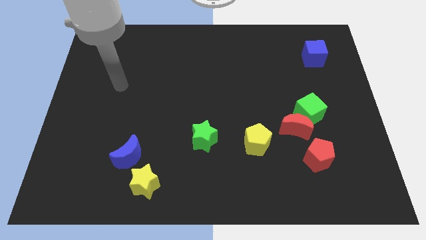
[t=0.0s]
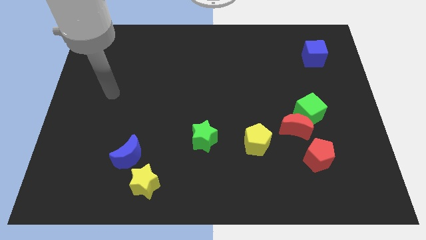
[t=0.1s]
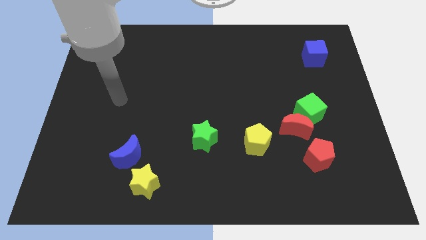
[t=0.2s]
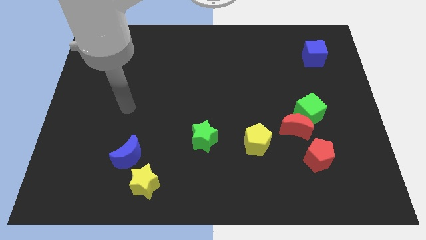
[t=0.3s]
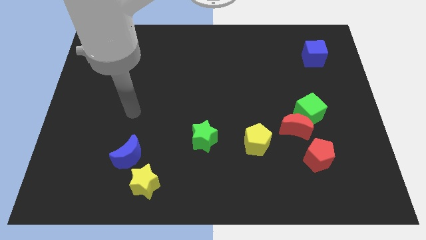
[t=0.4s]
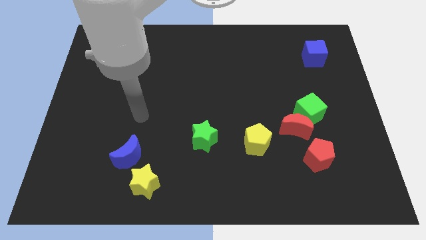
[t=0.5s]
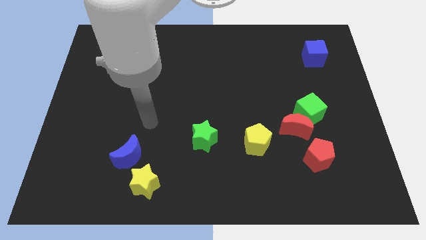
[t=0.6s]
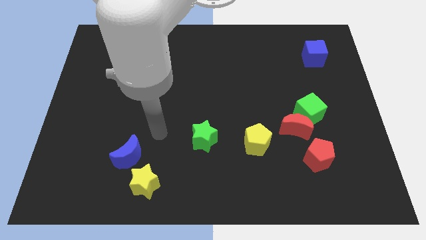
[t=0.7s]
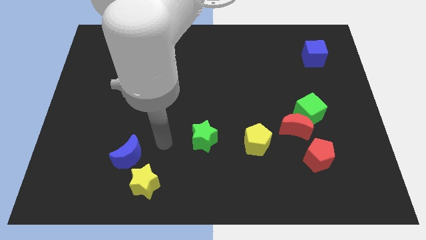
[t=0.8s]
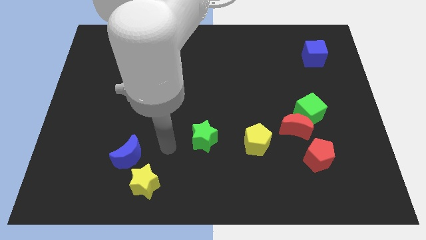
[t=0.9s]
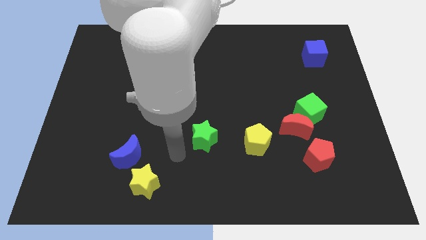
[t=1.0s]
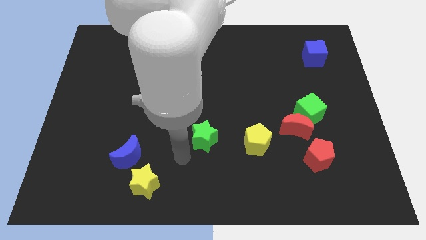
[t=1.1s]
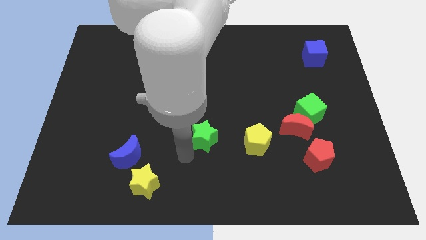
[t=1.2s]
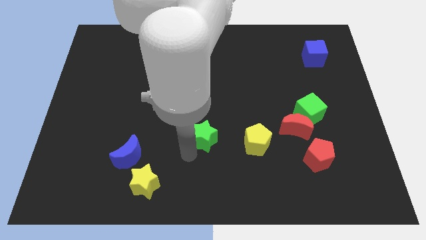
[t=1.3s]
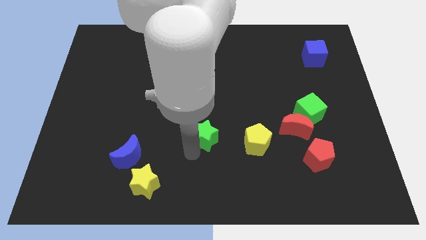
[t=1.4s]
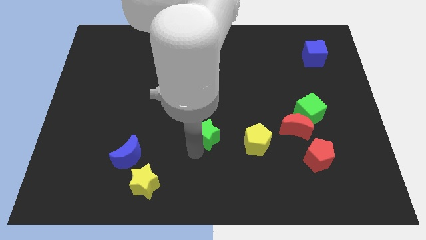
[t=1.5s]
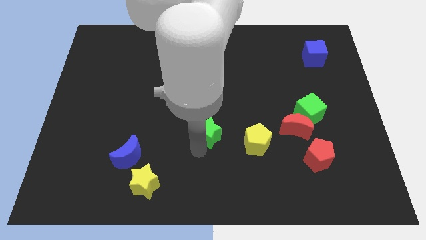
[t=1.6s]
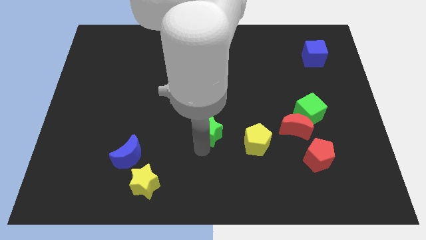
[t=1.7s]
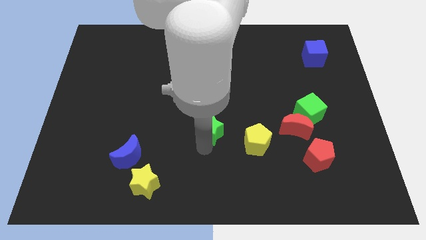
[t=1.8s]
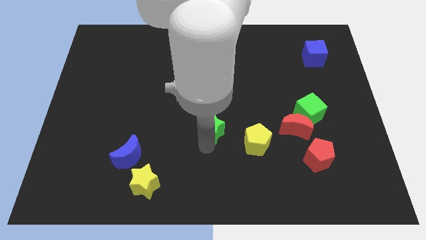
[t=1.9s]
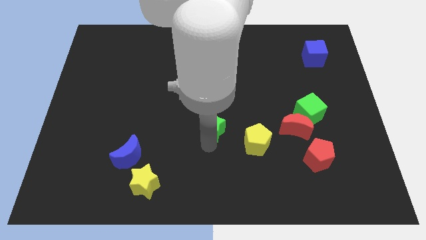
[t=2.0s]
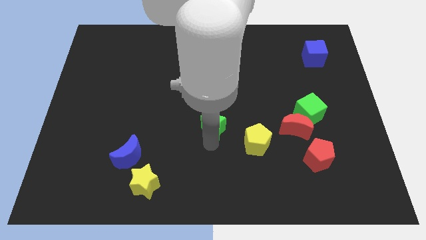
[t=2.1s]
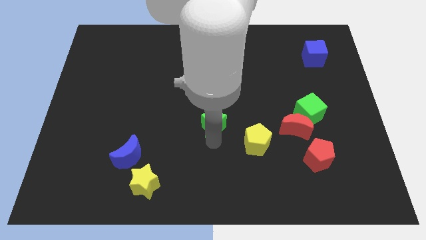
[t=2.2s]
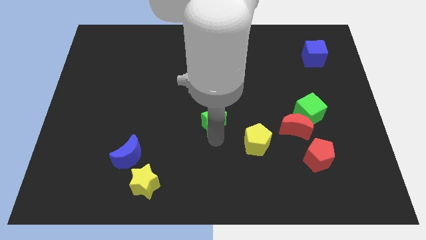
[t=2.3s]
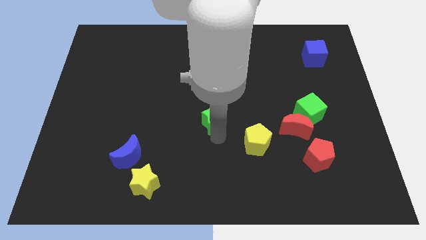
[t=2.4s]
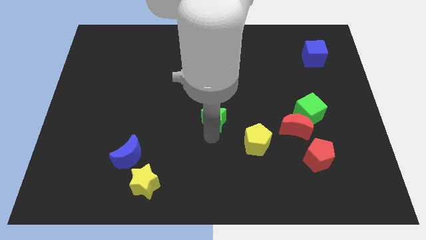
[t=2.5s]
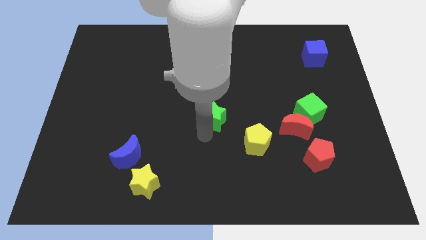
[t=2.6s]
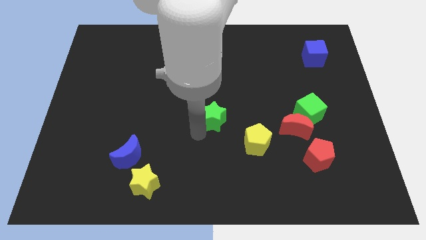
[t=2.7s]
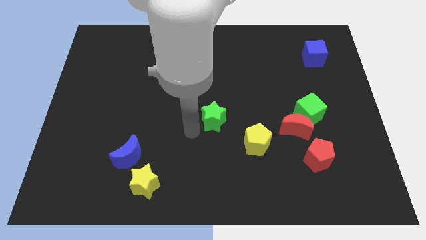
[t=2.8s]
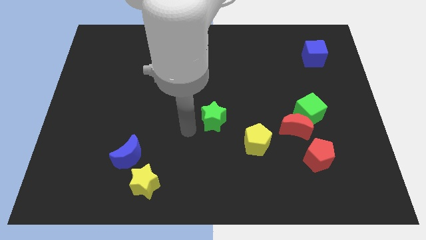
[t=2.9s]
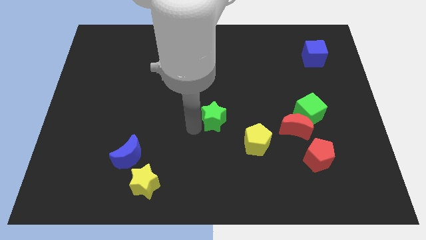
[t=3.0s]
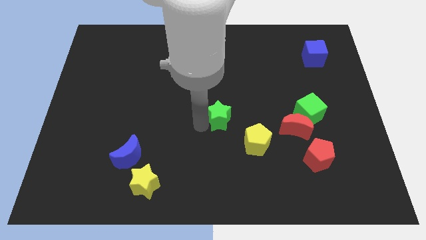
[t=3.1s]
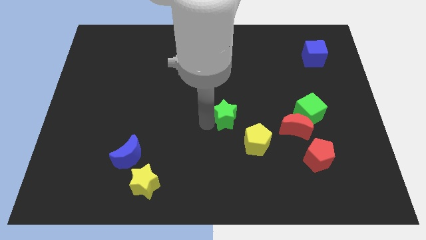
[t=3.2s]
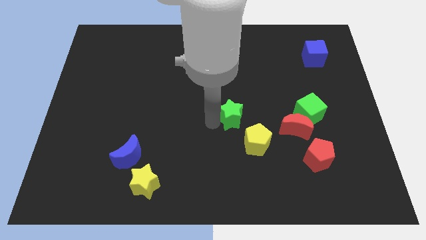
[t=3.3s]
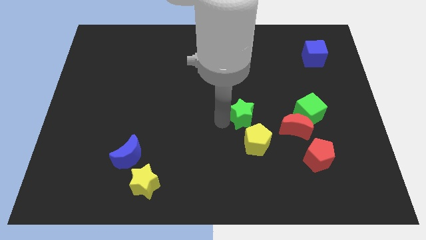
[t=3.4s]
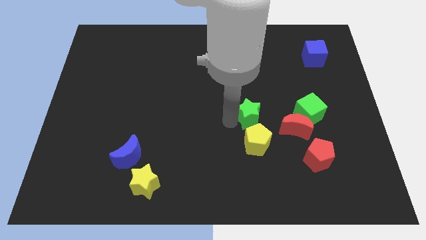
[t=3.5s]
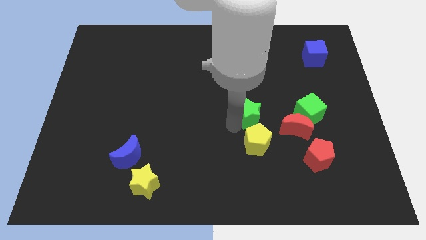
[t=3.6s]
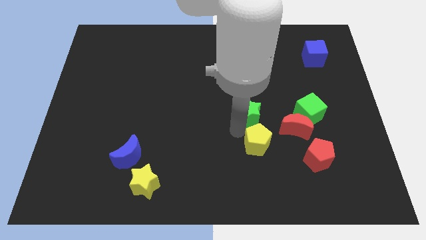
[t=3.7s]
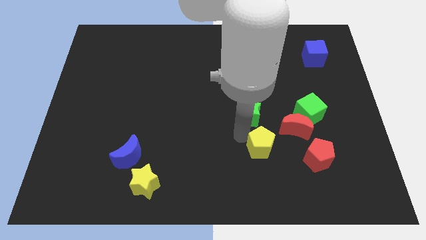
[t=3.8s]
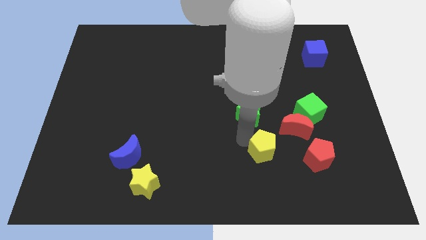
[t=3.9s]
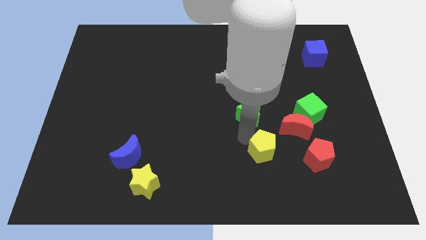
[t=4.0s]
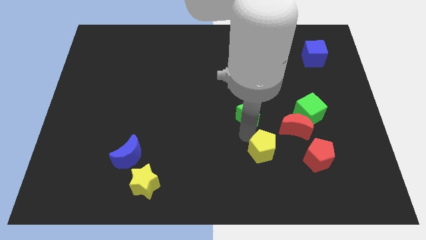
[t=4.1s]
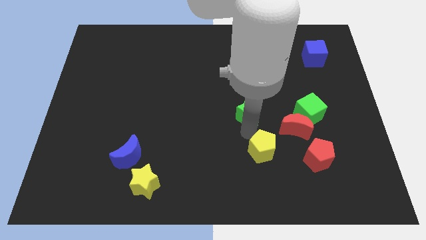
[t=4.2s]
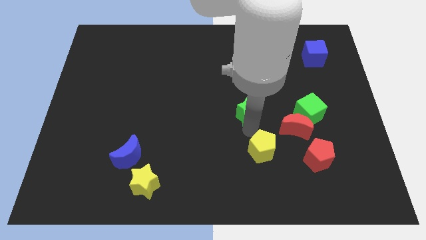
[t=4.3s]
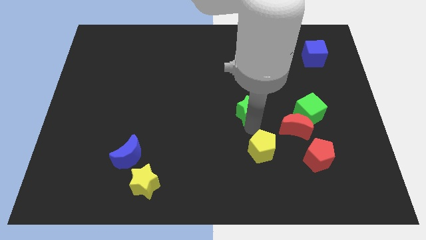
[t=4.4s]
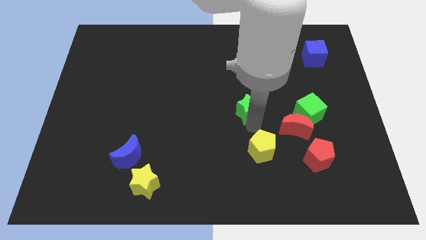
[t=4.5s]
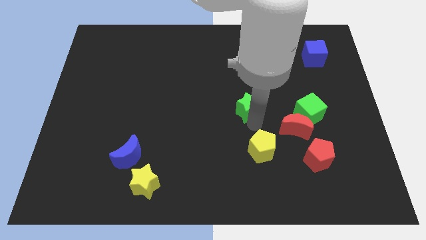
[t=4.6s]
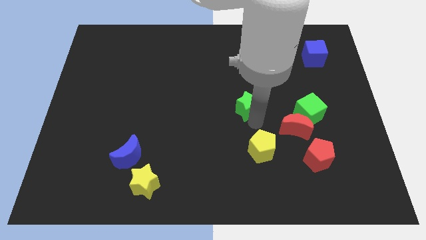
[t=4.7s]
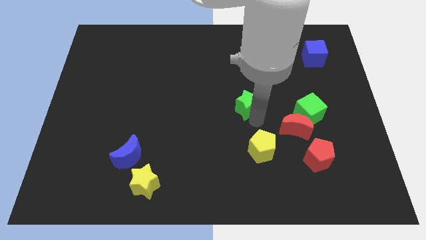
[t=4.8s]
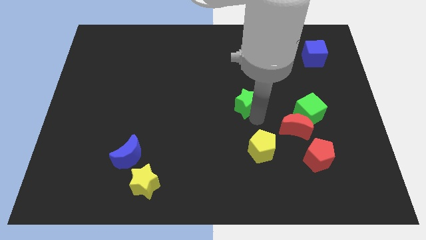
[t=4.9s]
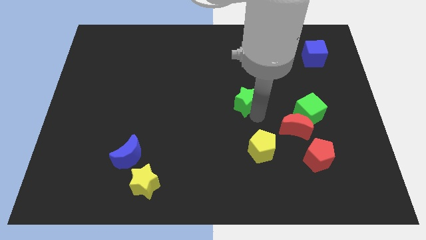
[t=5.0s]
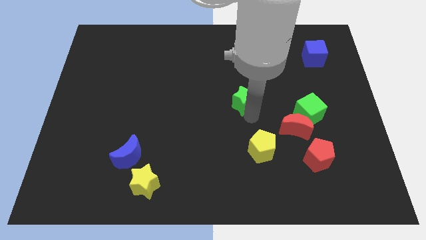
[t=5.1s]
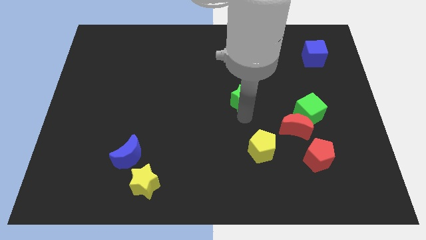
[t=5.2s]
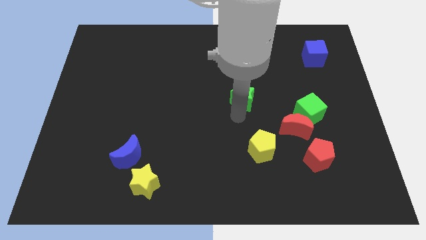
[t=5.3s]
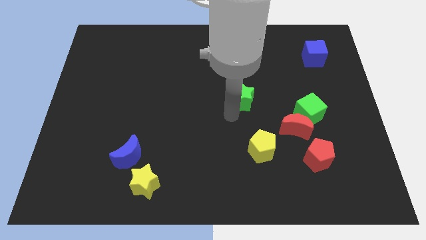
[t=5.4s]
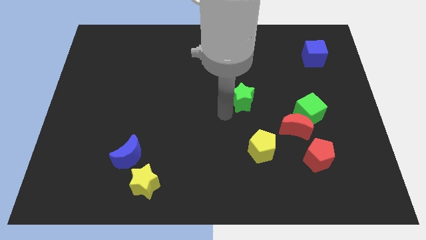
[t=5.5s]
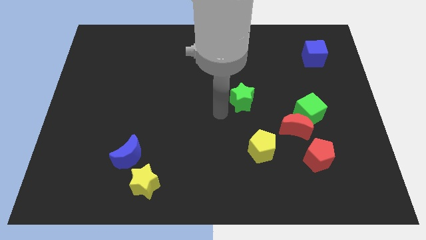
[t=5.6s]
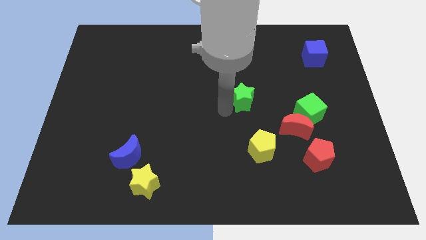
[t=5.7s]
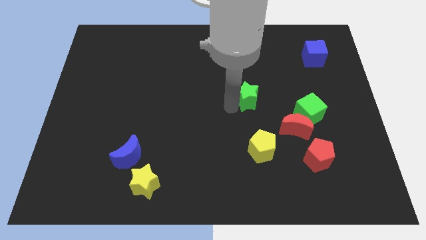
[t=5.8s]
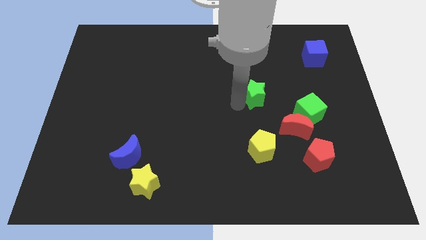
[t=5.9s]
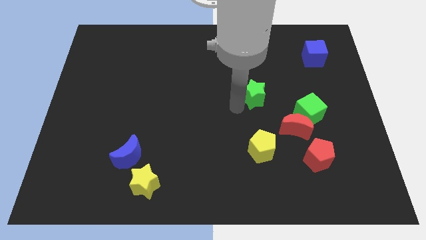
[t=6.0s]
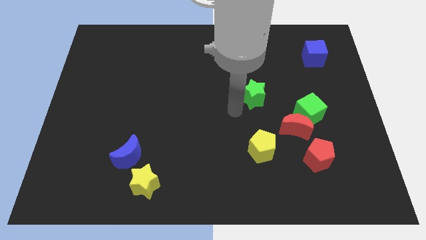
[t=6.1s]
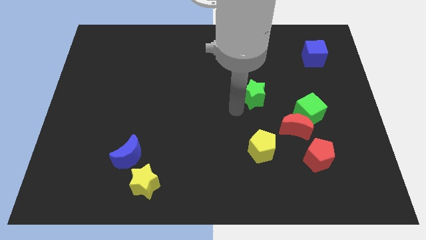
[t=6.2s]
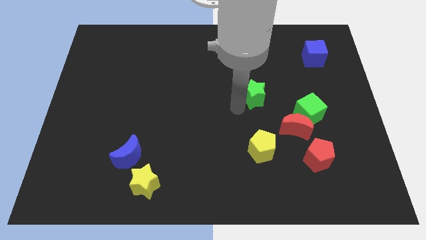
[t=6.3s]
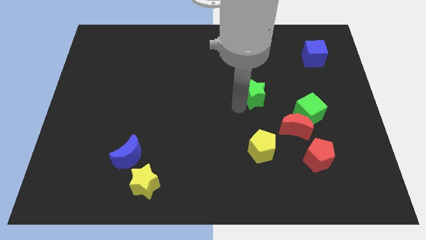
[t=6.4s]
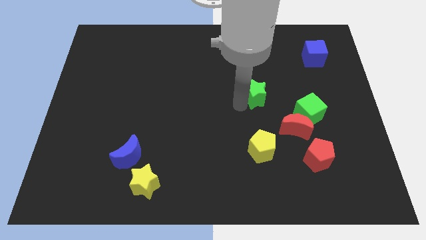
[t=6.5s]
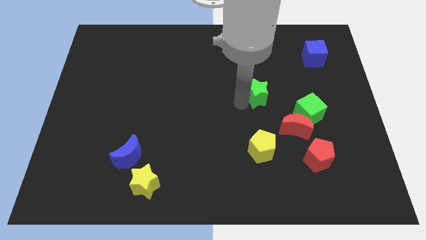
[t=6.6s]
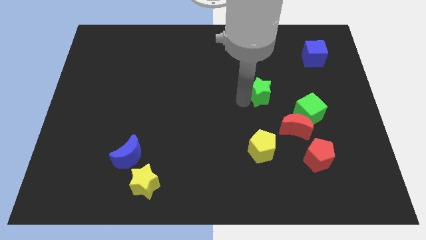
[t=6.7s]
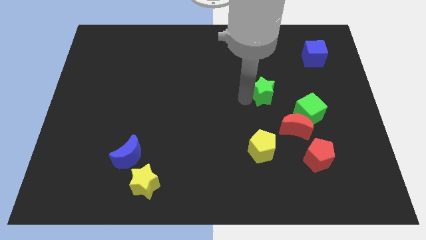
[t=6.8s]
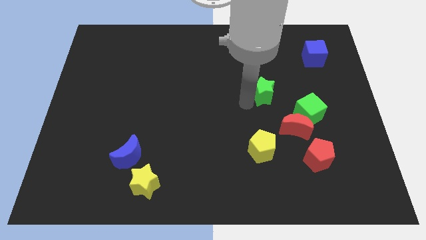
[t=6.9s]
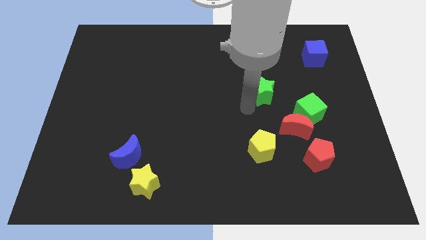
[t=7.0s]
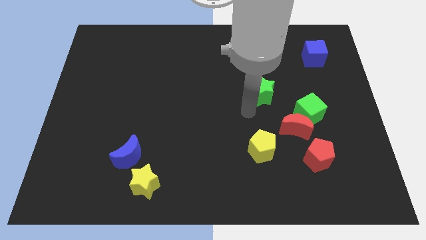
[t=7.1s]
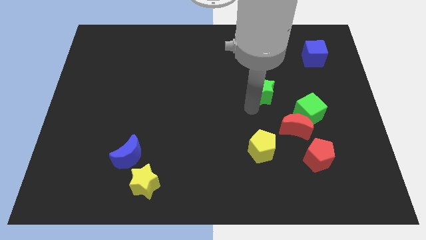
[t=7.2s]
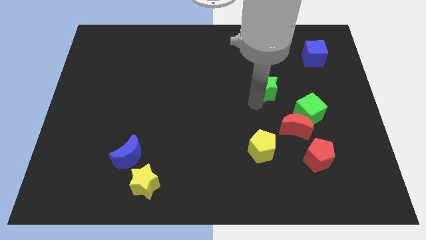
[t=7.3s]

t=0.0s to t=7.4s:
push the green star diagonally up and to the right

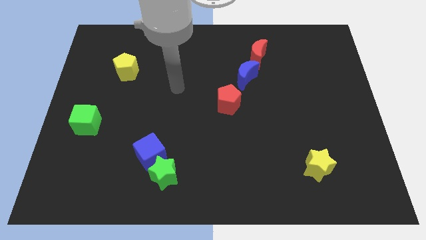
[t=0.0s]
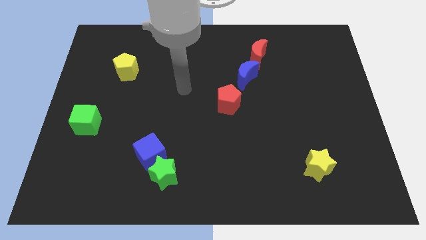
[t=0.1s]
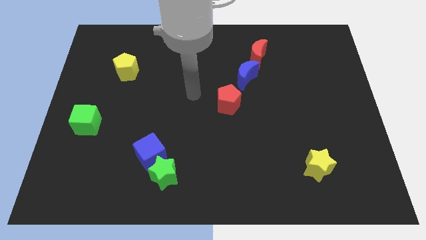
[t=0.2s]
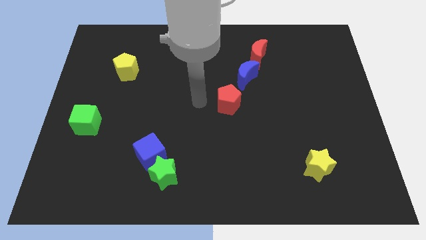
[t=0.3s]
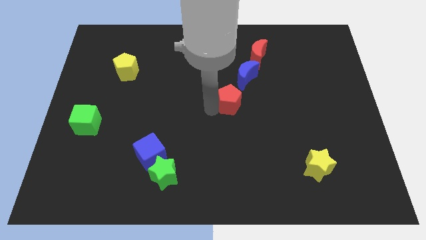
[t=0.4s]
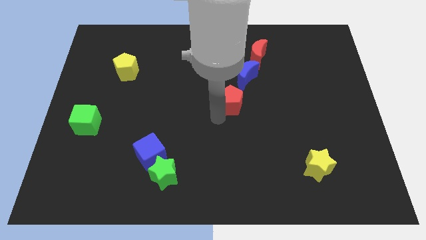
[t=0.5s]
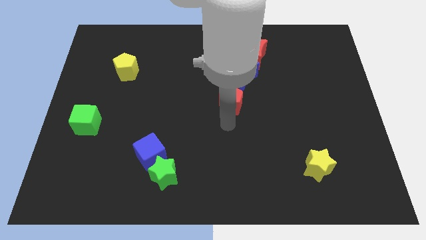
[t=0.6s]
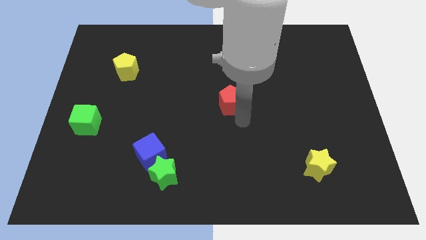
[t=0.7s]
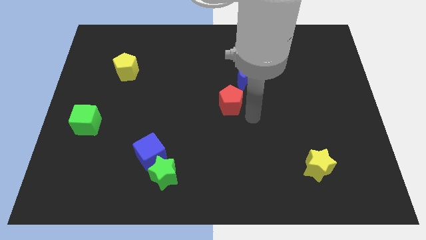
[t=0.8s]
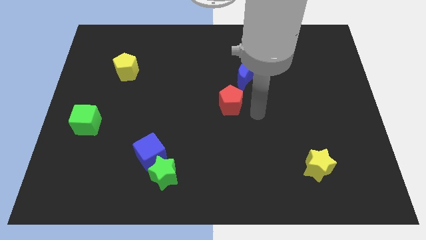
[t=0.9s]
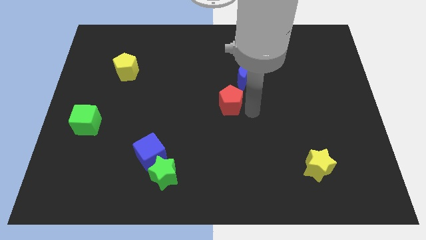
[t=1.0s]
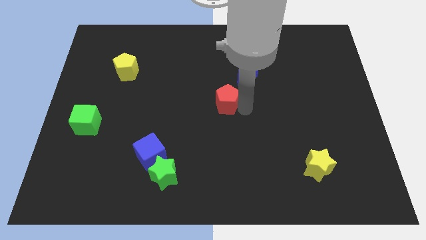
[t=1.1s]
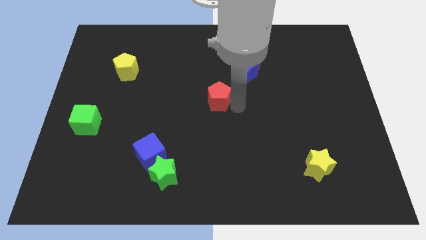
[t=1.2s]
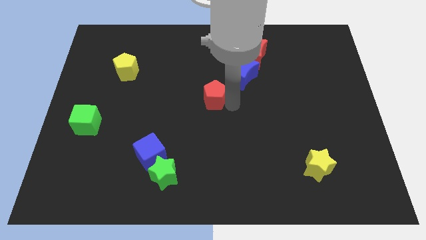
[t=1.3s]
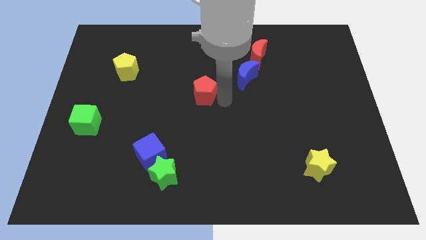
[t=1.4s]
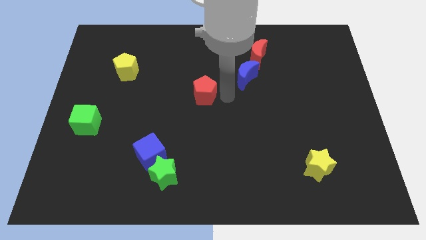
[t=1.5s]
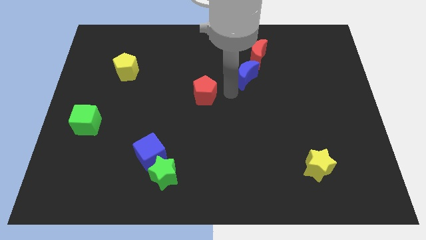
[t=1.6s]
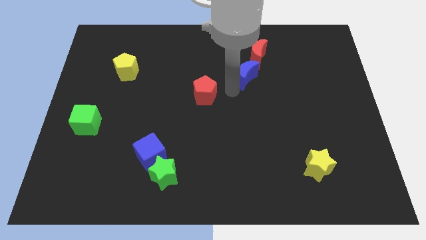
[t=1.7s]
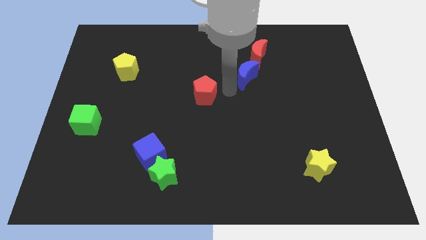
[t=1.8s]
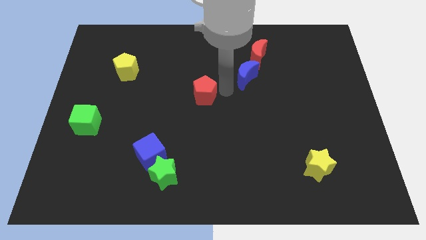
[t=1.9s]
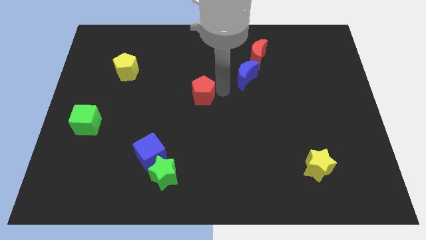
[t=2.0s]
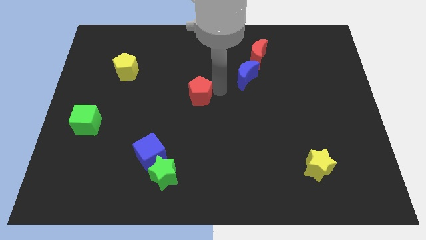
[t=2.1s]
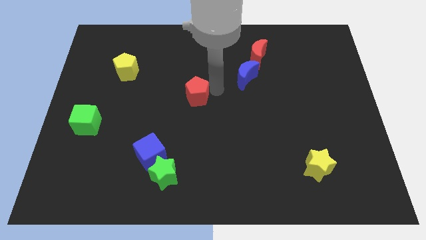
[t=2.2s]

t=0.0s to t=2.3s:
move the red pentagon a little bit to the left
